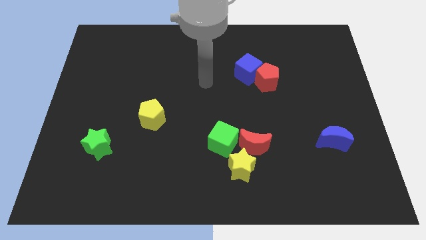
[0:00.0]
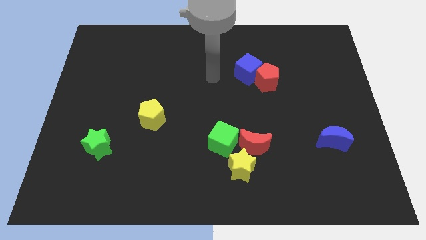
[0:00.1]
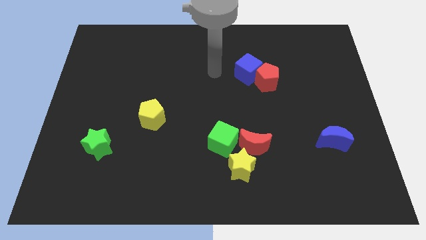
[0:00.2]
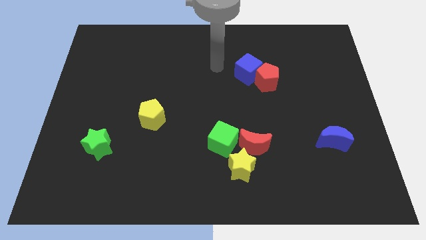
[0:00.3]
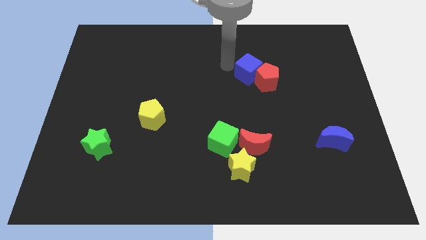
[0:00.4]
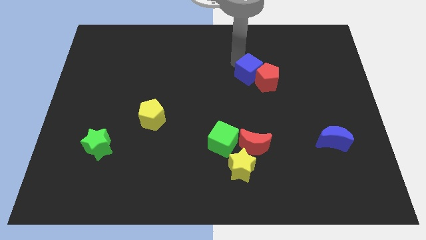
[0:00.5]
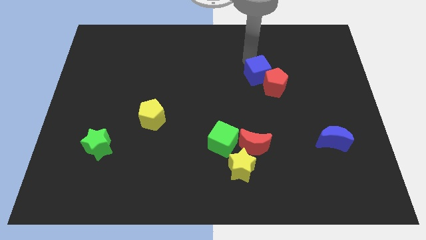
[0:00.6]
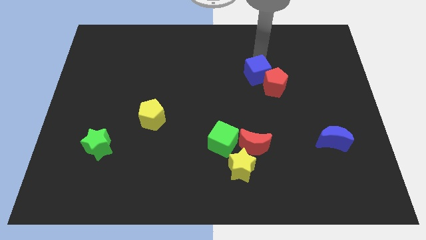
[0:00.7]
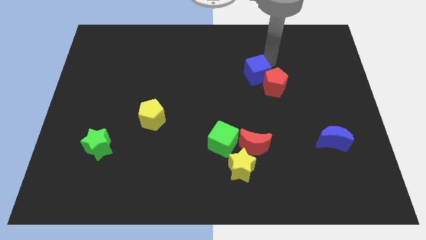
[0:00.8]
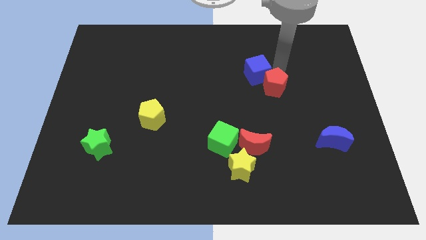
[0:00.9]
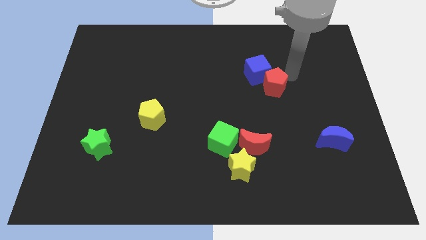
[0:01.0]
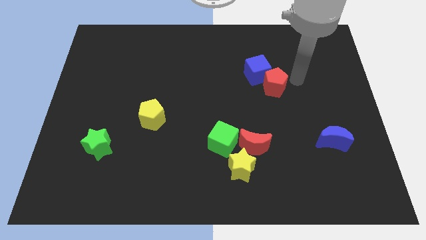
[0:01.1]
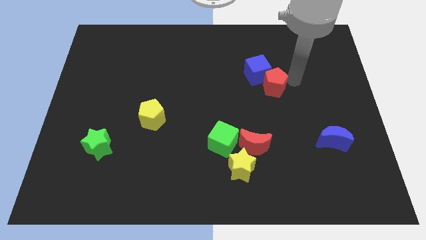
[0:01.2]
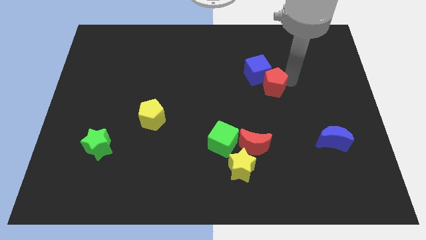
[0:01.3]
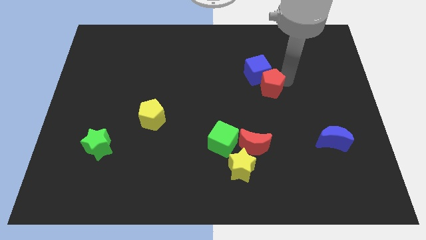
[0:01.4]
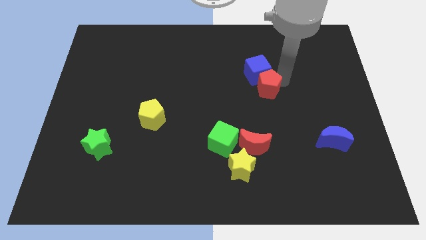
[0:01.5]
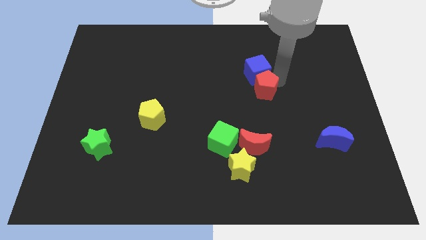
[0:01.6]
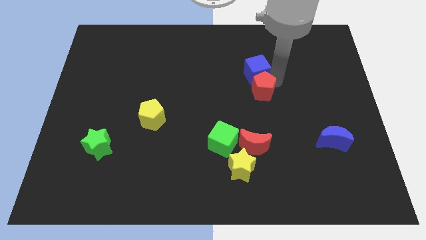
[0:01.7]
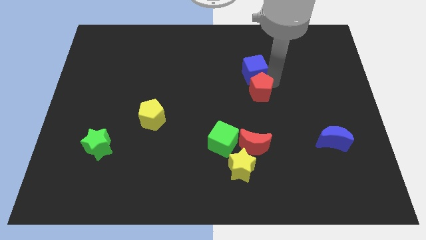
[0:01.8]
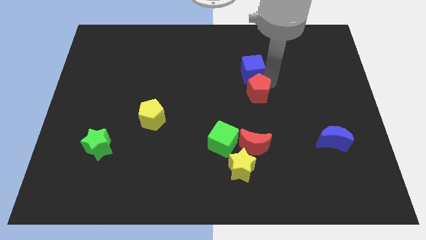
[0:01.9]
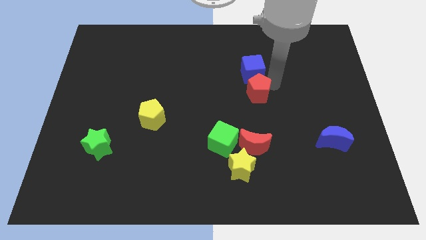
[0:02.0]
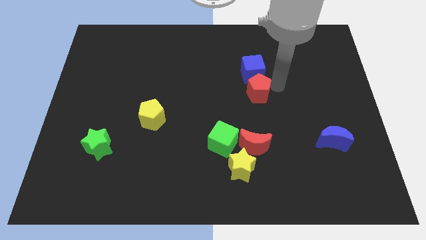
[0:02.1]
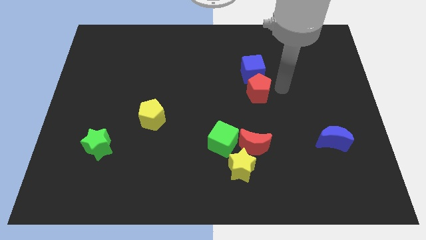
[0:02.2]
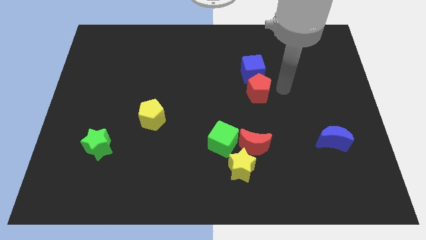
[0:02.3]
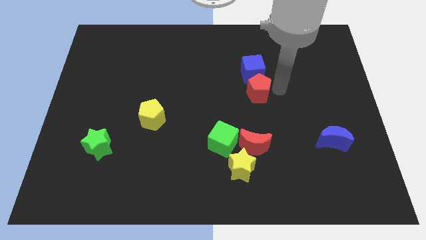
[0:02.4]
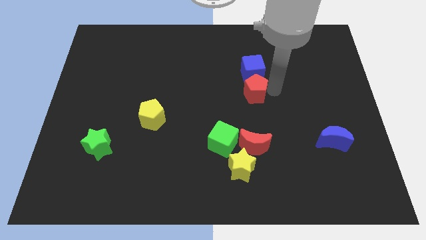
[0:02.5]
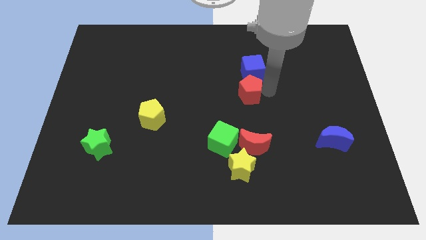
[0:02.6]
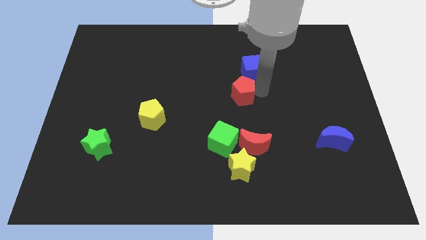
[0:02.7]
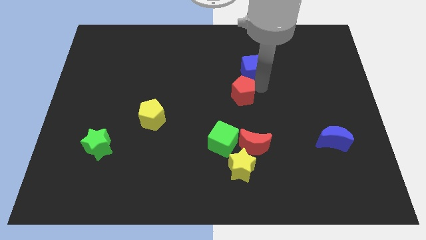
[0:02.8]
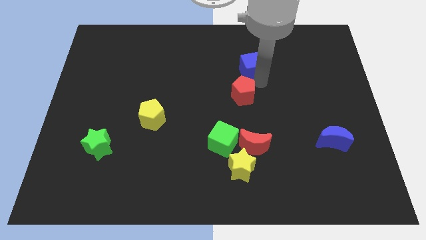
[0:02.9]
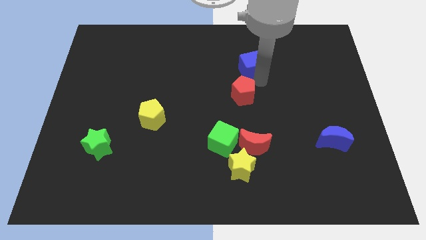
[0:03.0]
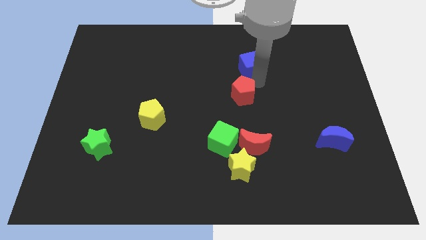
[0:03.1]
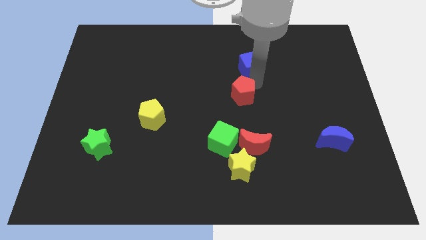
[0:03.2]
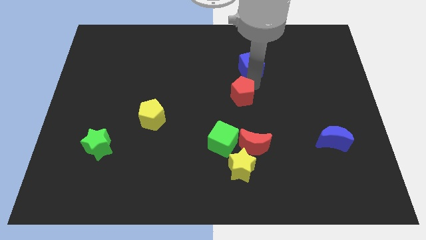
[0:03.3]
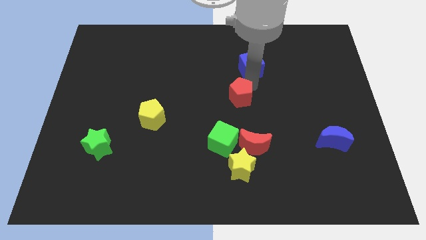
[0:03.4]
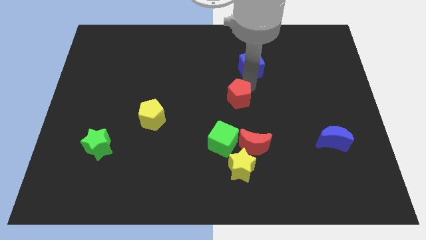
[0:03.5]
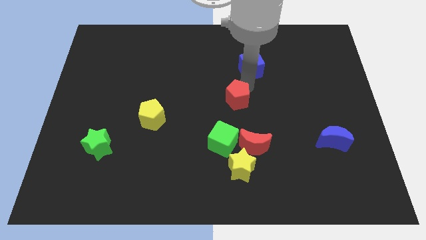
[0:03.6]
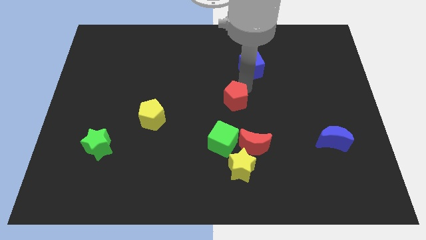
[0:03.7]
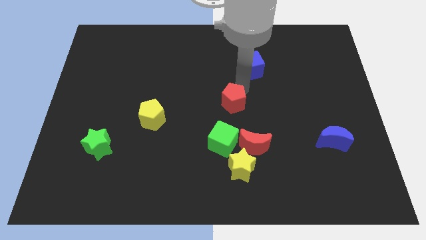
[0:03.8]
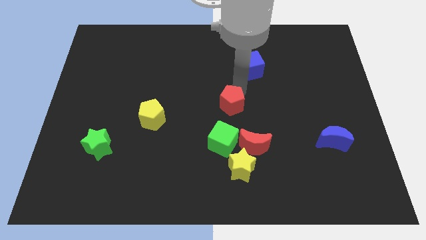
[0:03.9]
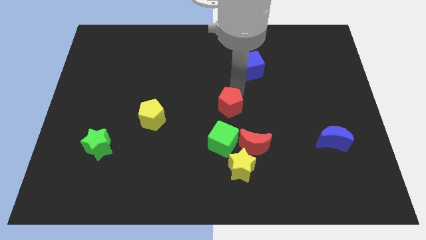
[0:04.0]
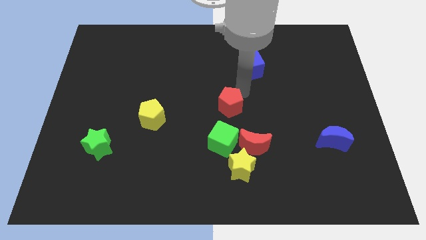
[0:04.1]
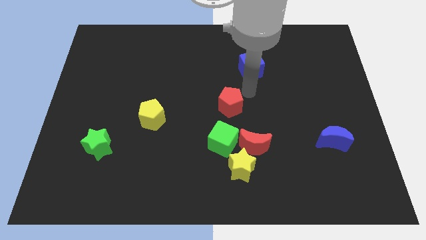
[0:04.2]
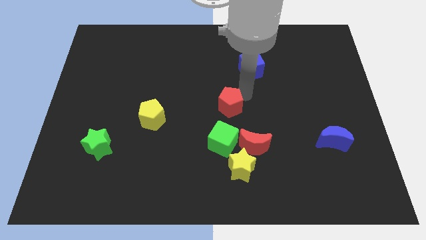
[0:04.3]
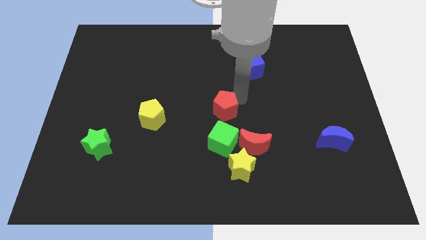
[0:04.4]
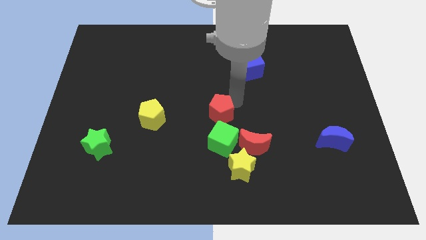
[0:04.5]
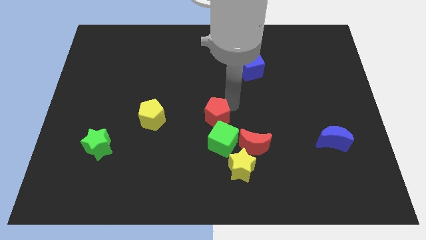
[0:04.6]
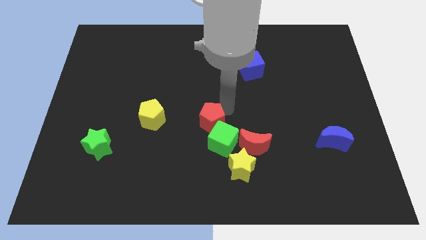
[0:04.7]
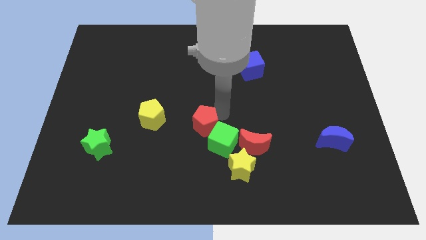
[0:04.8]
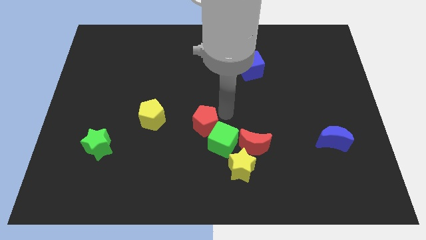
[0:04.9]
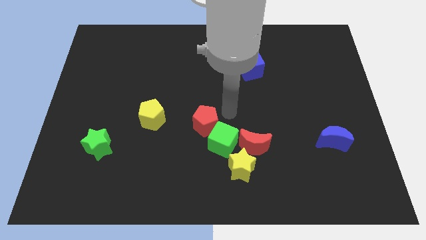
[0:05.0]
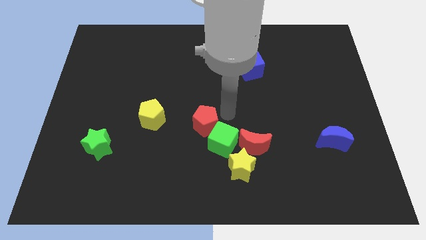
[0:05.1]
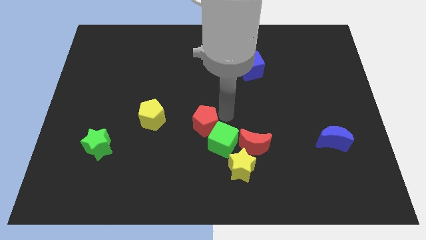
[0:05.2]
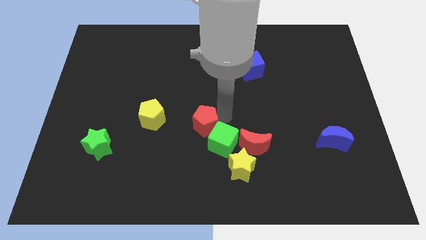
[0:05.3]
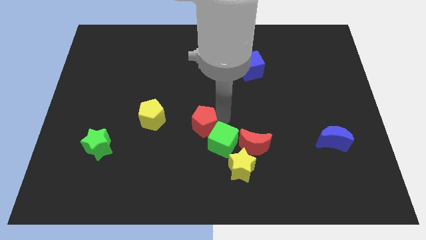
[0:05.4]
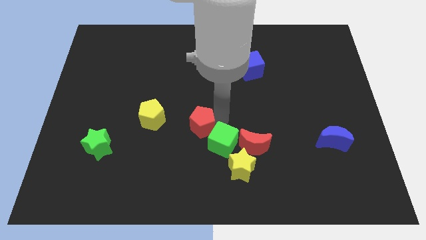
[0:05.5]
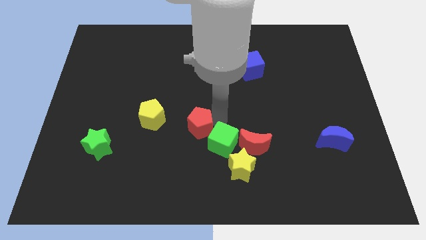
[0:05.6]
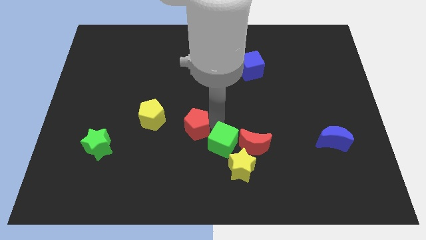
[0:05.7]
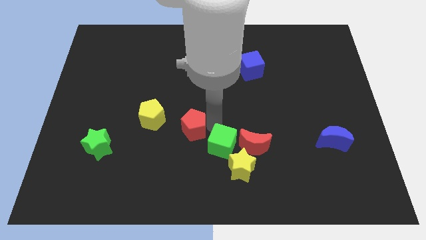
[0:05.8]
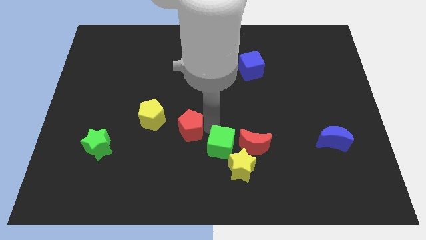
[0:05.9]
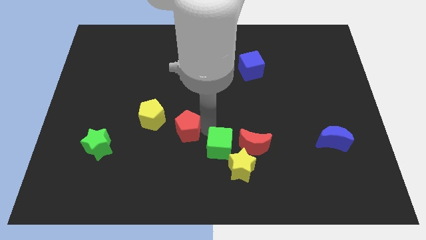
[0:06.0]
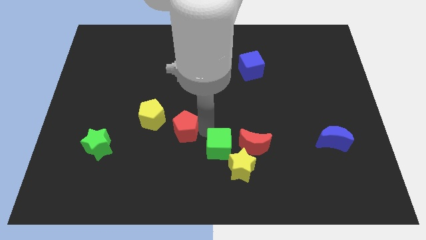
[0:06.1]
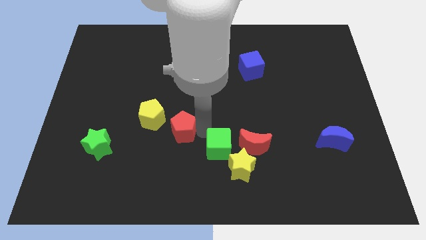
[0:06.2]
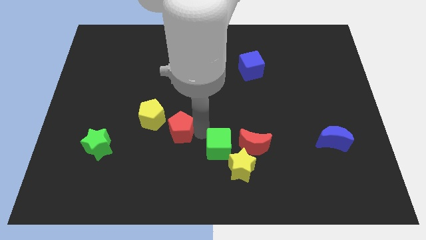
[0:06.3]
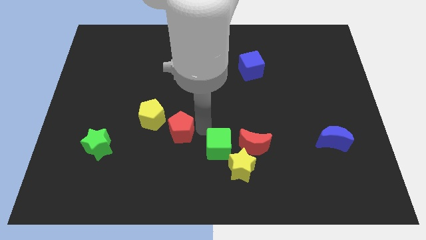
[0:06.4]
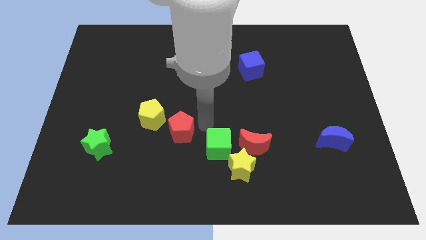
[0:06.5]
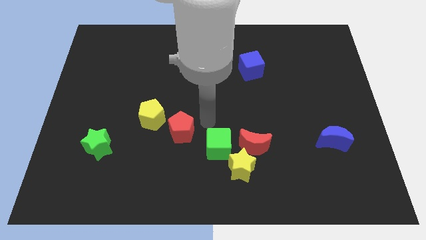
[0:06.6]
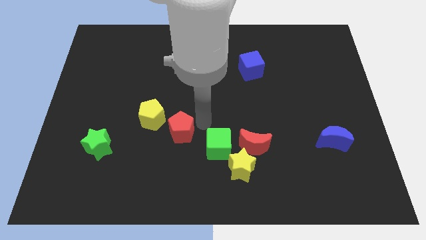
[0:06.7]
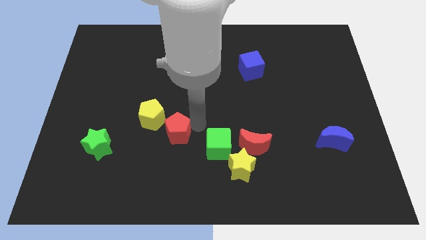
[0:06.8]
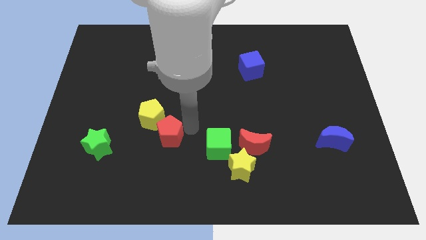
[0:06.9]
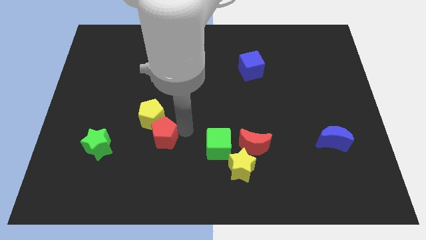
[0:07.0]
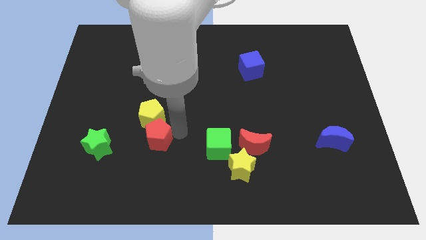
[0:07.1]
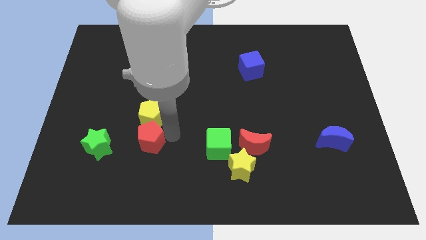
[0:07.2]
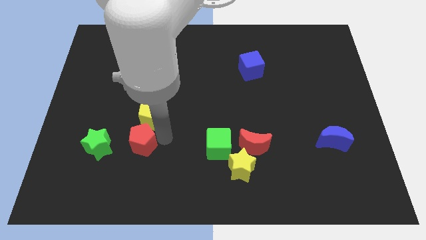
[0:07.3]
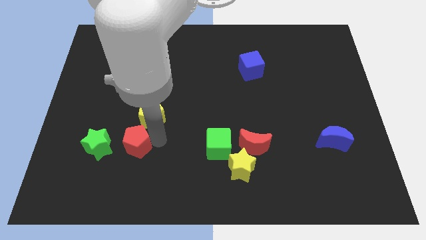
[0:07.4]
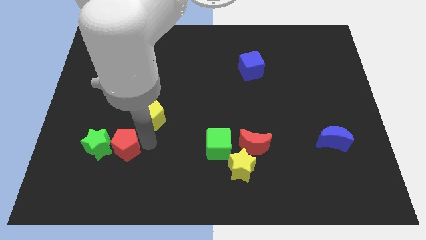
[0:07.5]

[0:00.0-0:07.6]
move the red pentagon to the green star
